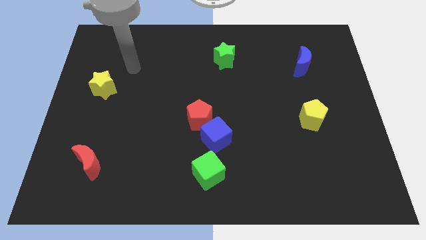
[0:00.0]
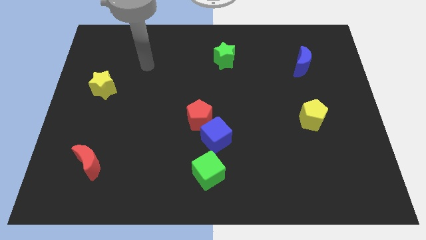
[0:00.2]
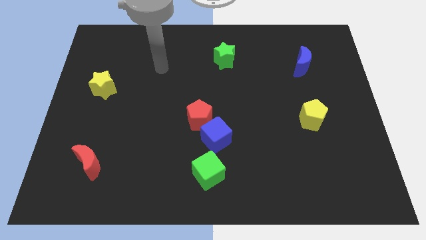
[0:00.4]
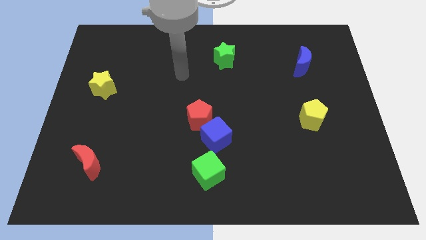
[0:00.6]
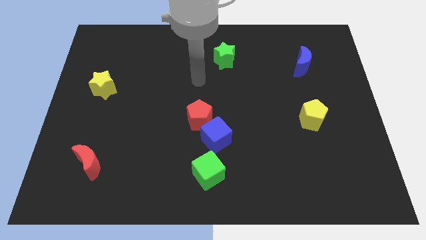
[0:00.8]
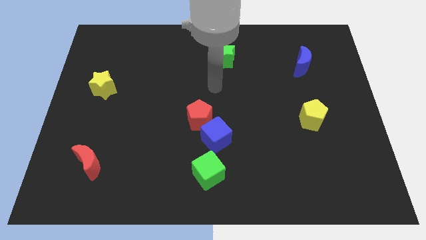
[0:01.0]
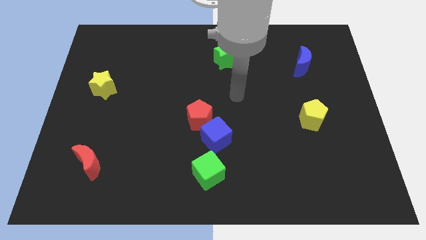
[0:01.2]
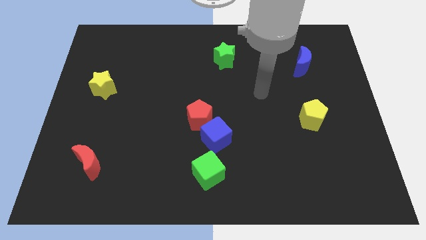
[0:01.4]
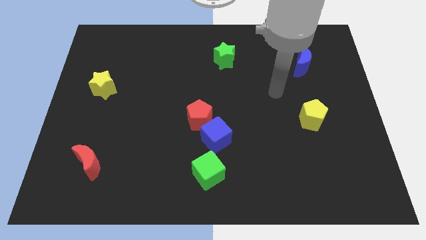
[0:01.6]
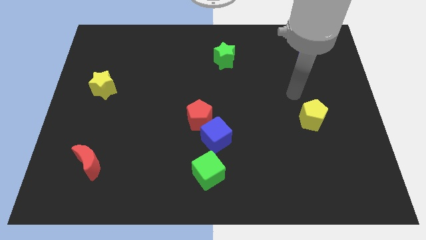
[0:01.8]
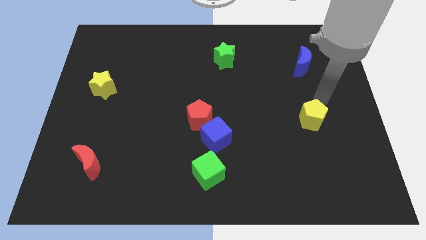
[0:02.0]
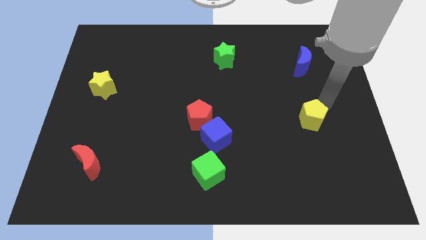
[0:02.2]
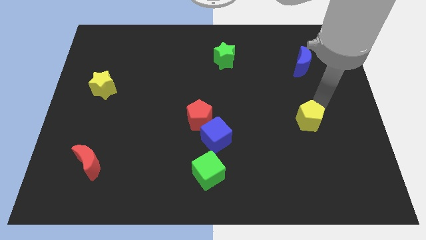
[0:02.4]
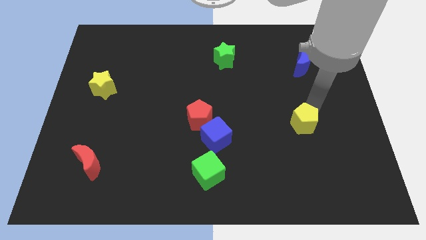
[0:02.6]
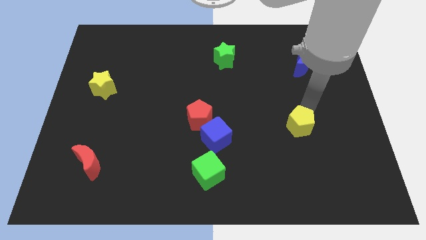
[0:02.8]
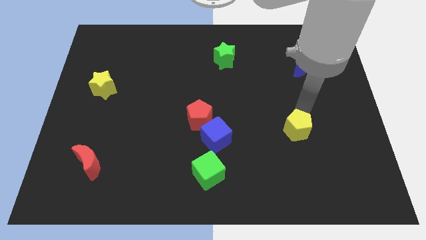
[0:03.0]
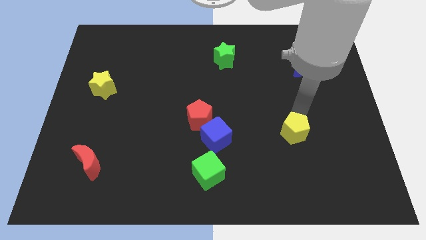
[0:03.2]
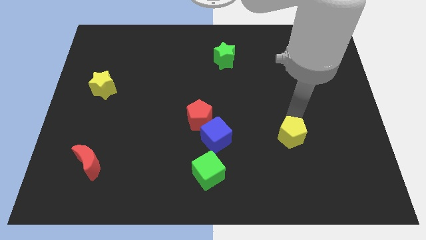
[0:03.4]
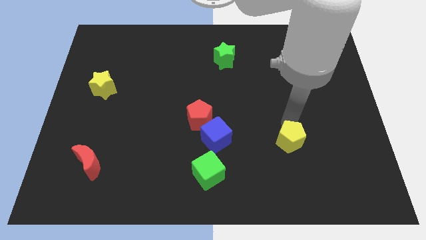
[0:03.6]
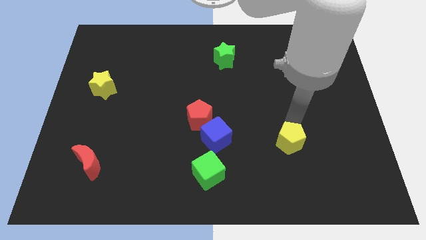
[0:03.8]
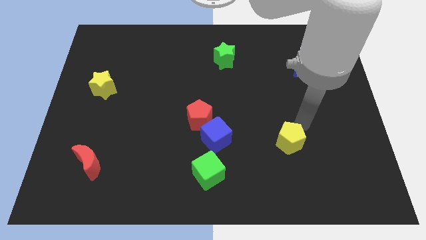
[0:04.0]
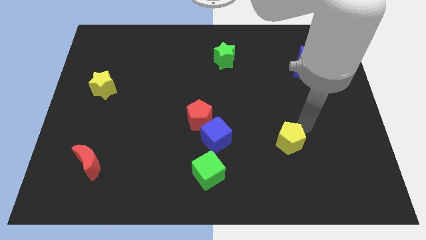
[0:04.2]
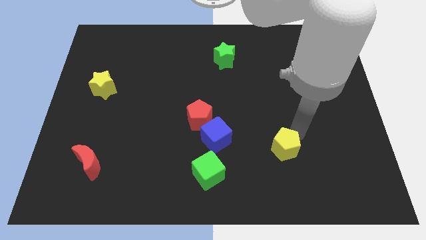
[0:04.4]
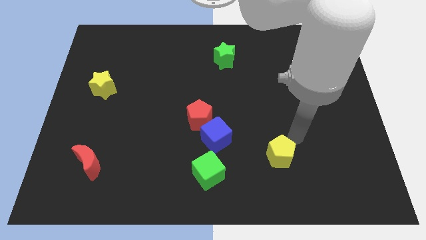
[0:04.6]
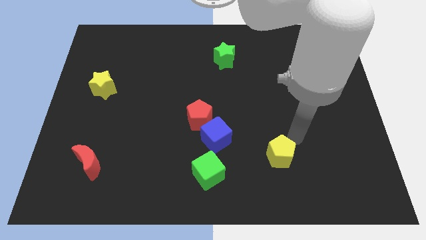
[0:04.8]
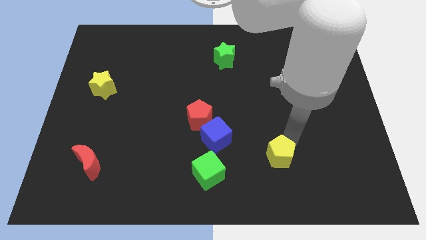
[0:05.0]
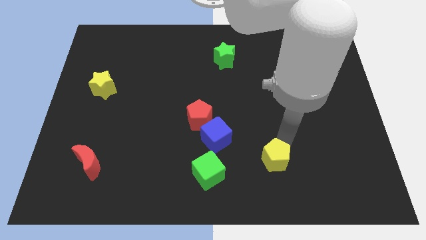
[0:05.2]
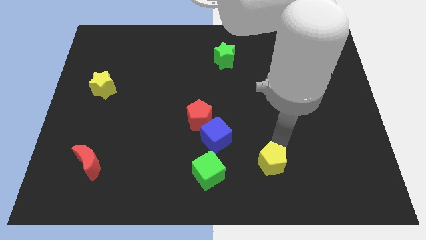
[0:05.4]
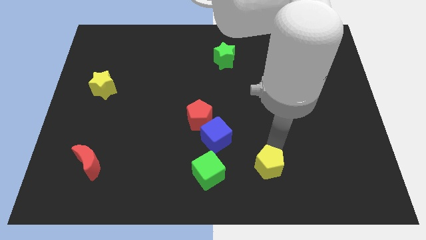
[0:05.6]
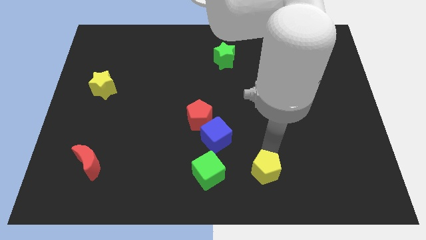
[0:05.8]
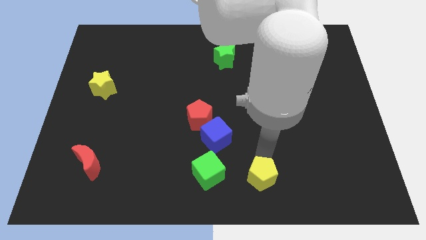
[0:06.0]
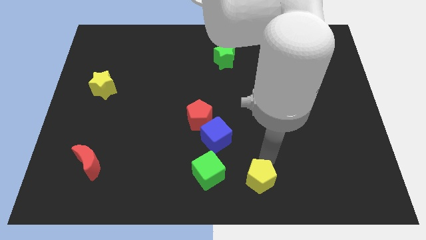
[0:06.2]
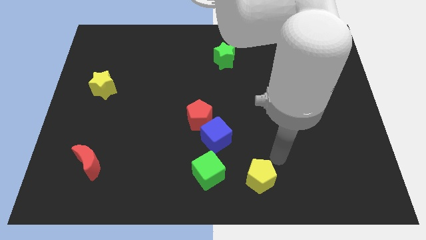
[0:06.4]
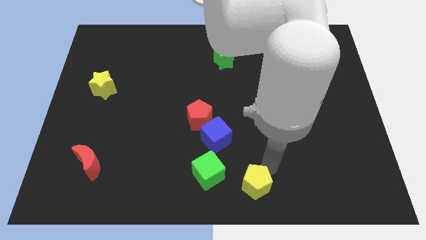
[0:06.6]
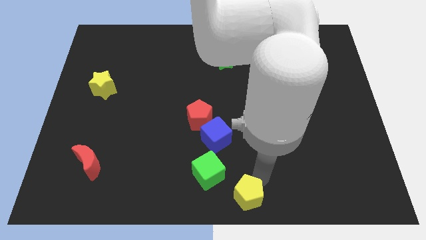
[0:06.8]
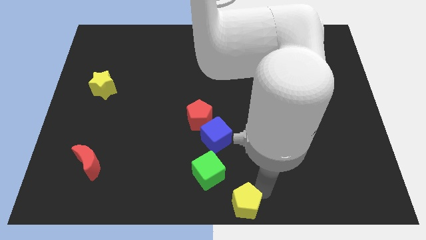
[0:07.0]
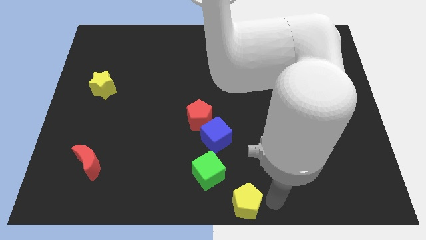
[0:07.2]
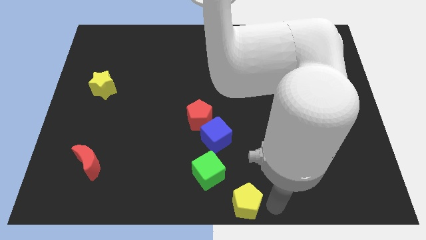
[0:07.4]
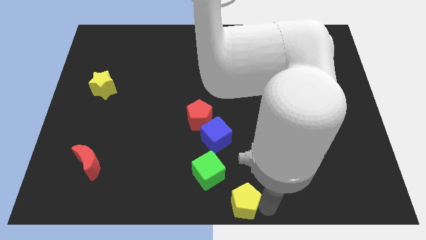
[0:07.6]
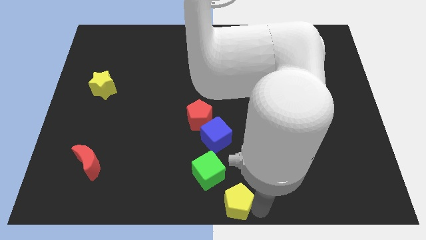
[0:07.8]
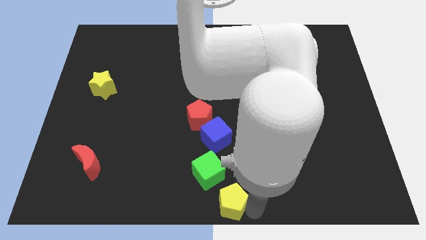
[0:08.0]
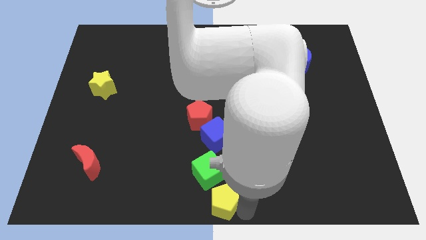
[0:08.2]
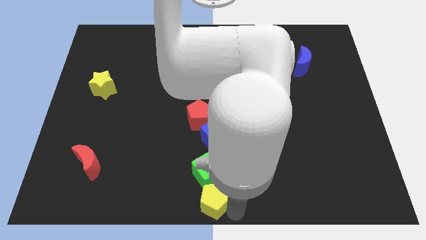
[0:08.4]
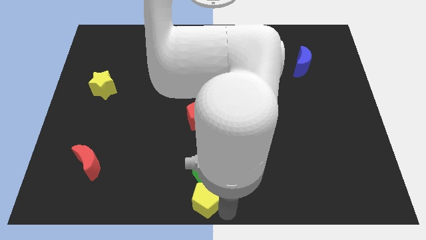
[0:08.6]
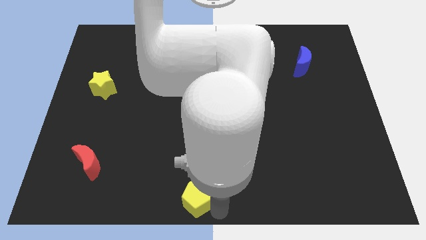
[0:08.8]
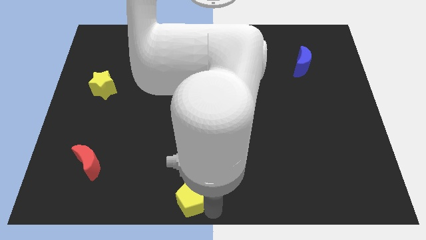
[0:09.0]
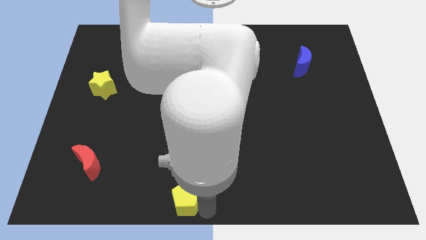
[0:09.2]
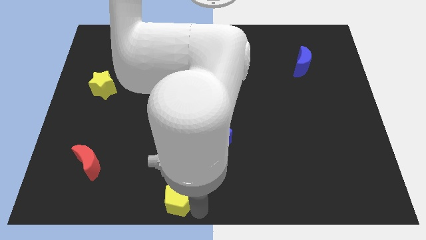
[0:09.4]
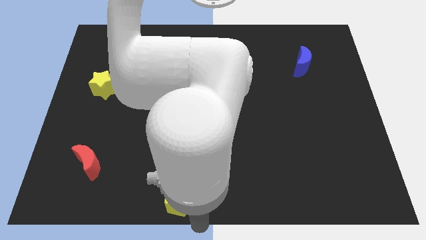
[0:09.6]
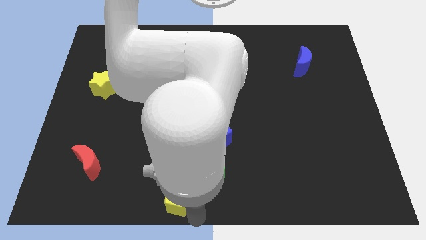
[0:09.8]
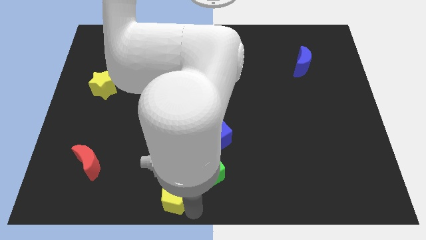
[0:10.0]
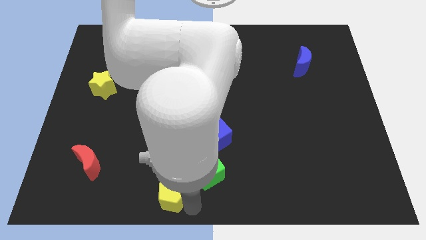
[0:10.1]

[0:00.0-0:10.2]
push the yellow pentagon just left of the green cube

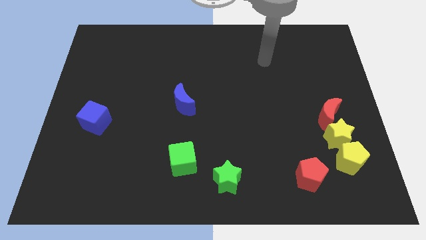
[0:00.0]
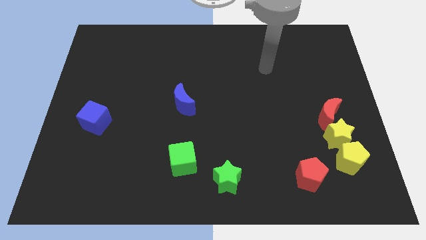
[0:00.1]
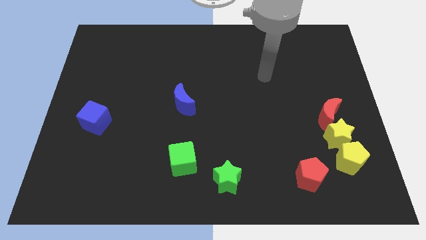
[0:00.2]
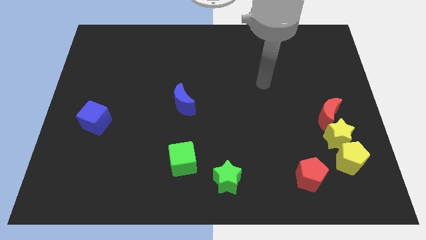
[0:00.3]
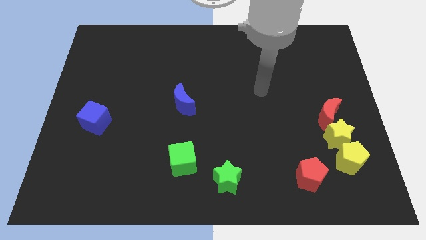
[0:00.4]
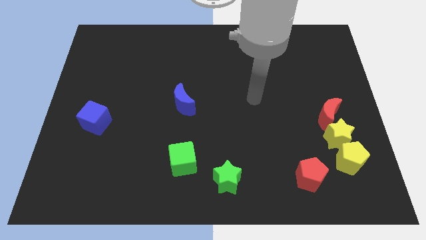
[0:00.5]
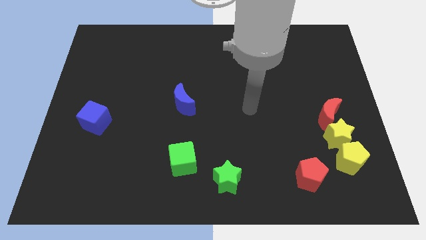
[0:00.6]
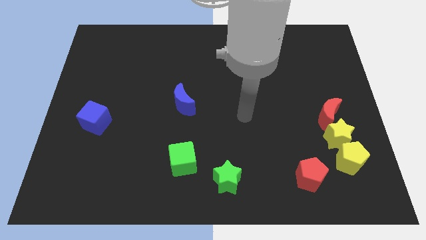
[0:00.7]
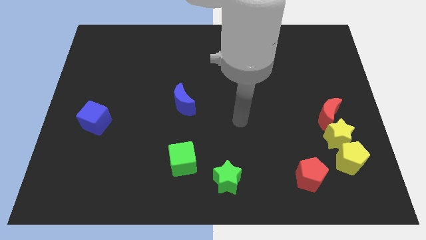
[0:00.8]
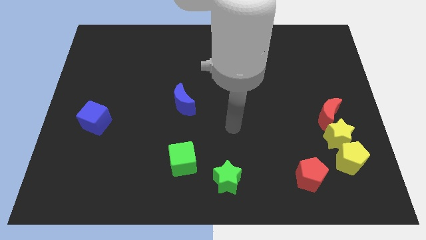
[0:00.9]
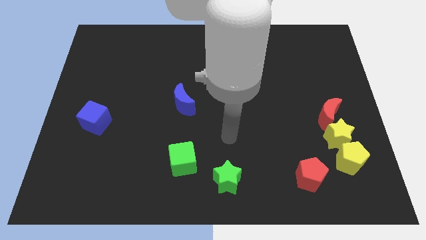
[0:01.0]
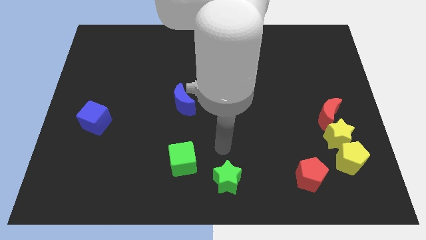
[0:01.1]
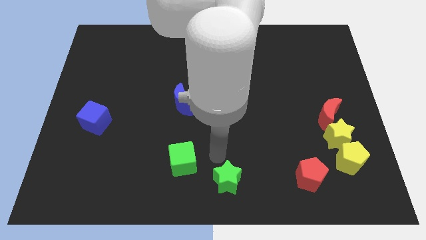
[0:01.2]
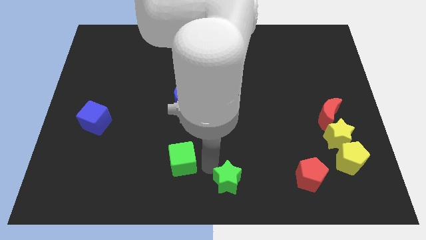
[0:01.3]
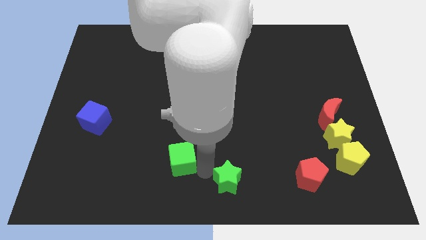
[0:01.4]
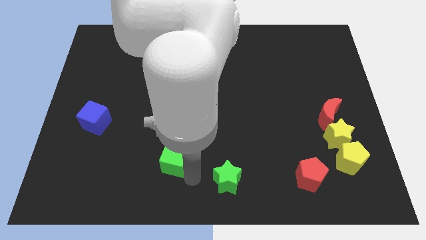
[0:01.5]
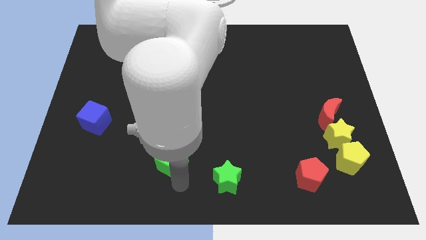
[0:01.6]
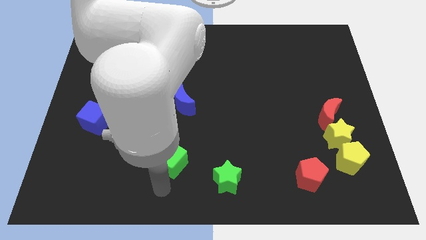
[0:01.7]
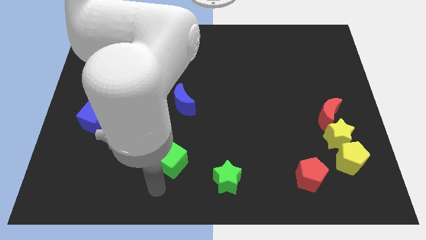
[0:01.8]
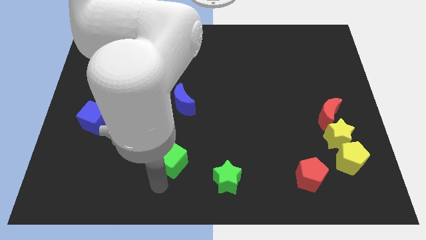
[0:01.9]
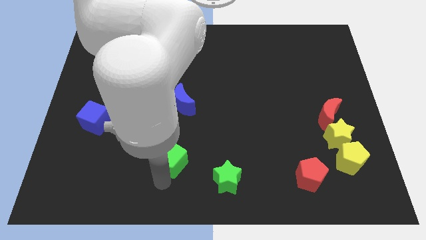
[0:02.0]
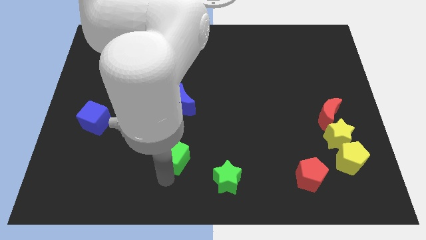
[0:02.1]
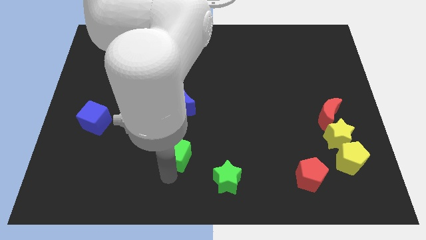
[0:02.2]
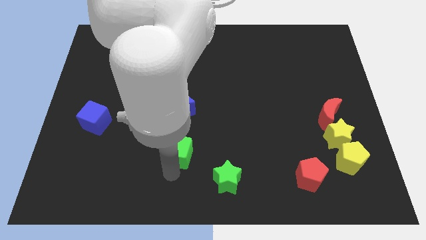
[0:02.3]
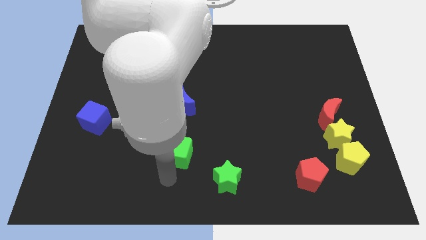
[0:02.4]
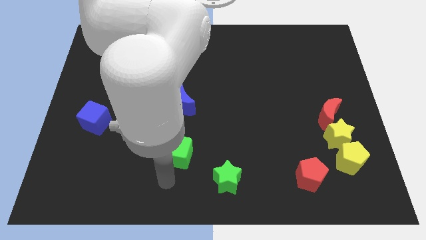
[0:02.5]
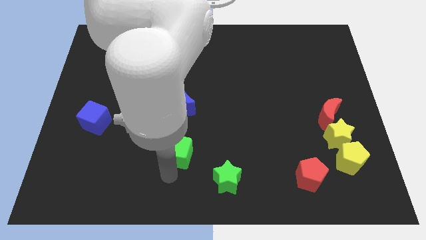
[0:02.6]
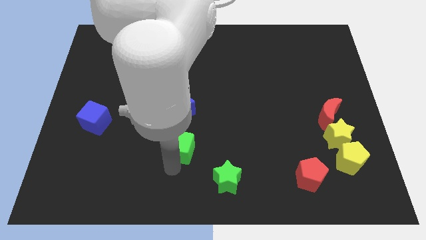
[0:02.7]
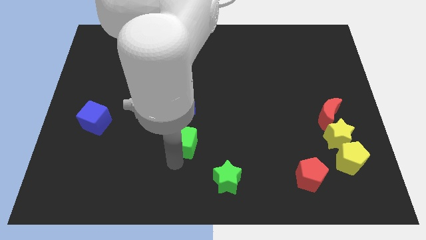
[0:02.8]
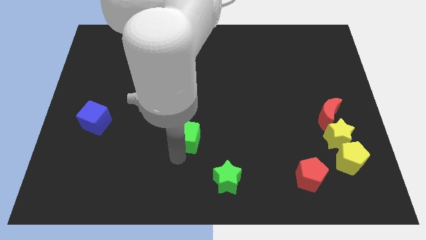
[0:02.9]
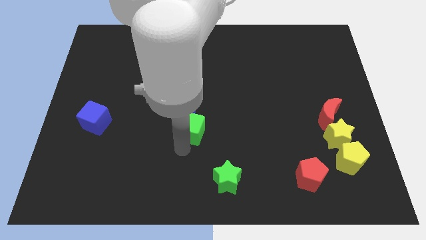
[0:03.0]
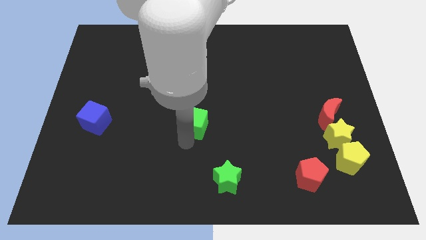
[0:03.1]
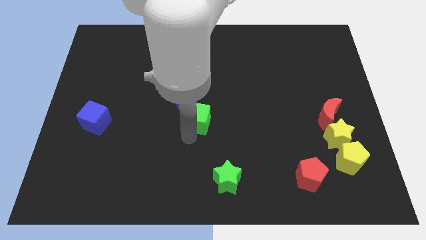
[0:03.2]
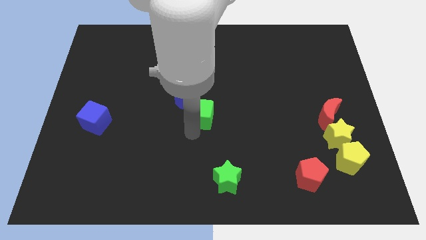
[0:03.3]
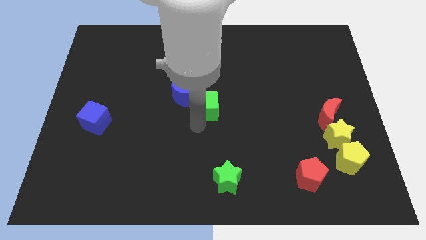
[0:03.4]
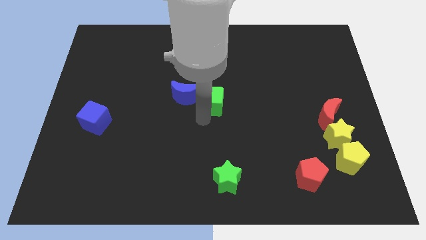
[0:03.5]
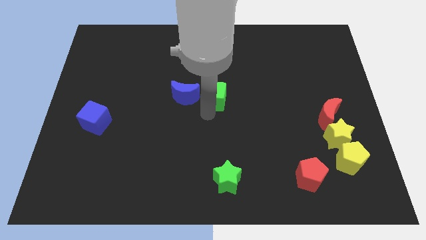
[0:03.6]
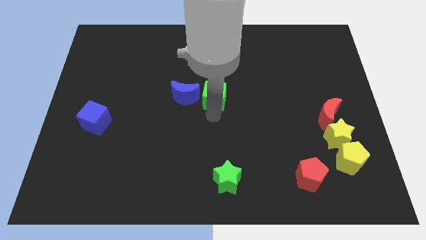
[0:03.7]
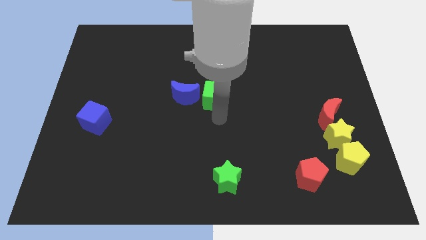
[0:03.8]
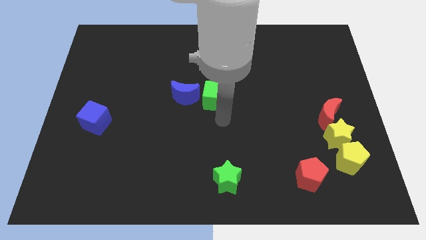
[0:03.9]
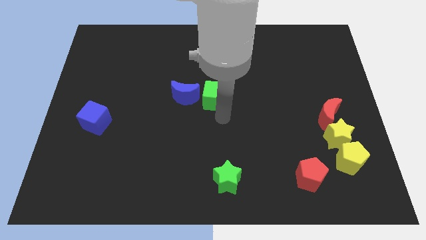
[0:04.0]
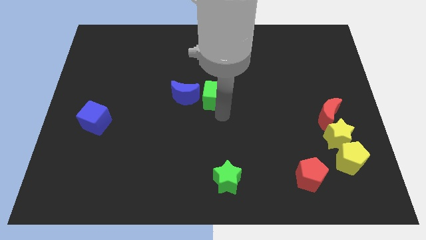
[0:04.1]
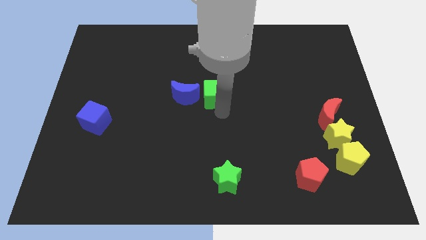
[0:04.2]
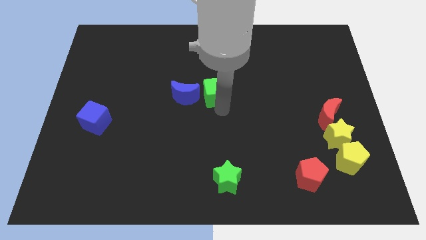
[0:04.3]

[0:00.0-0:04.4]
put the green cube diagonally up and to the right of the blue moon
